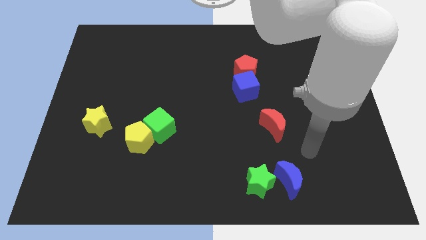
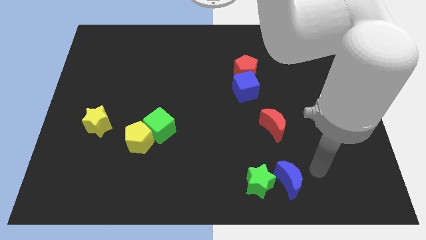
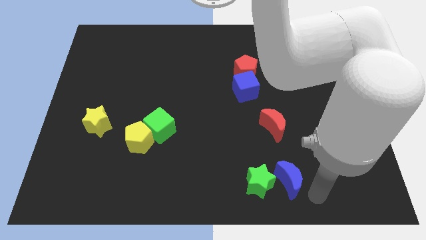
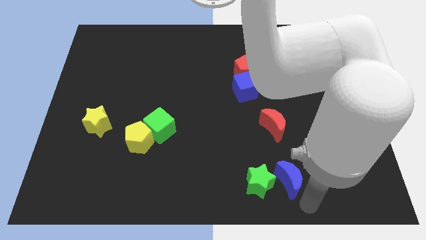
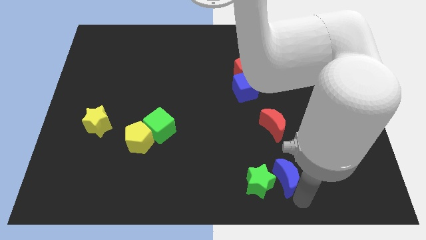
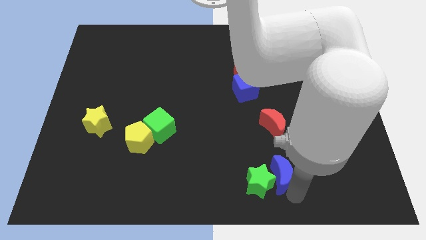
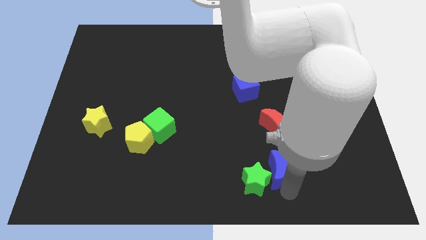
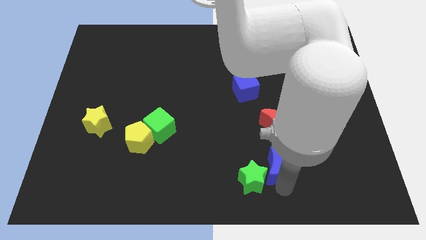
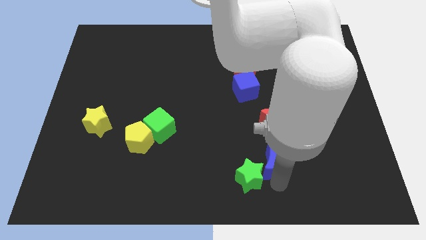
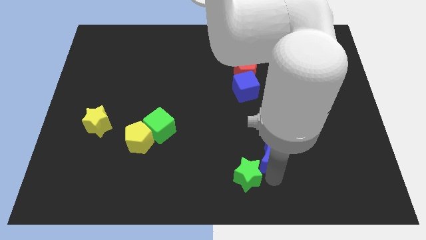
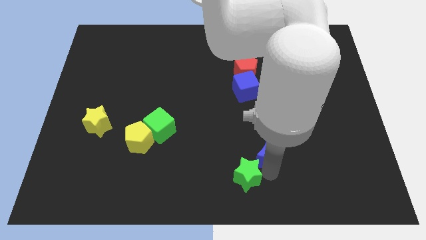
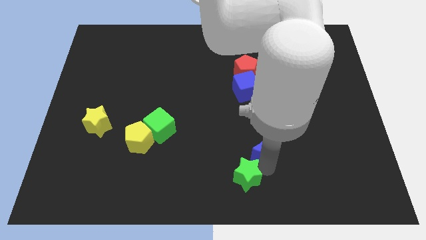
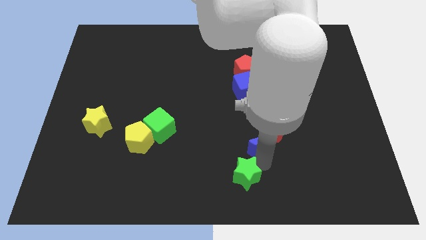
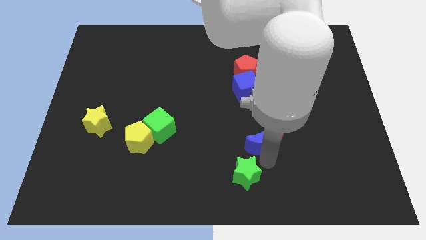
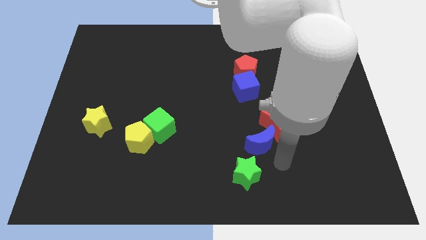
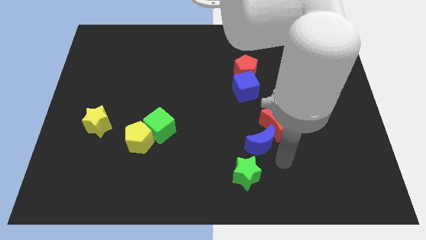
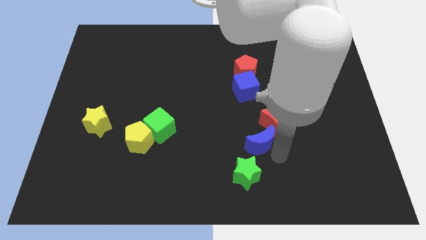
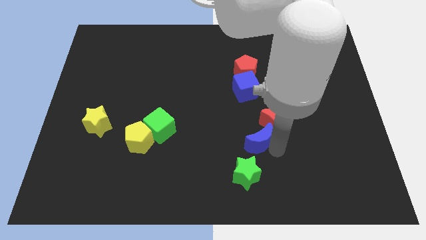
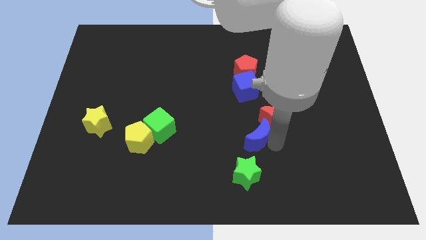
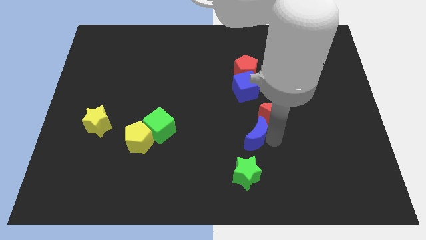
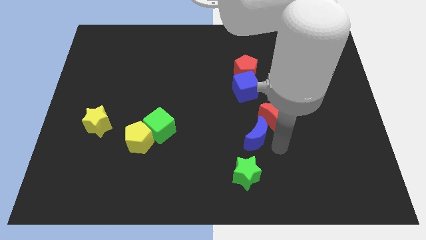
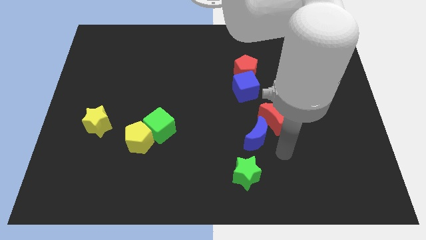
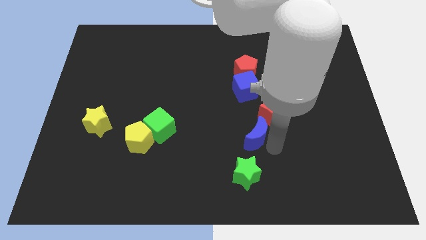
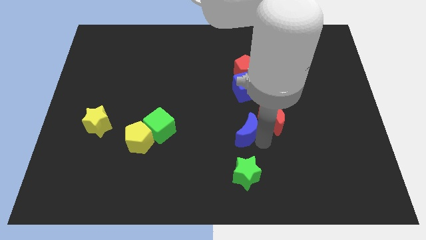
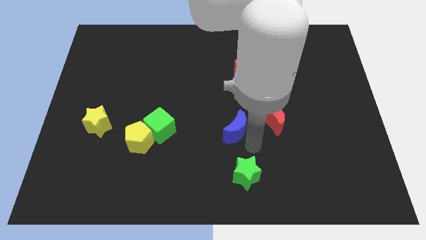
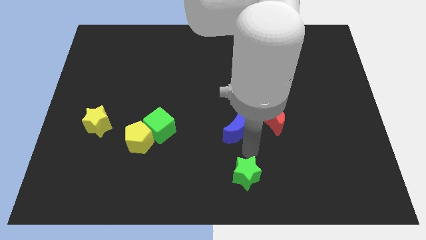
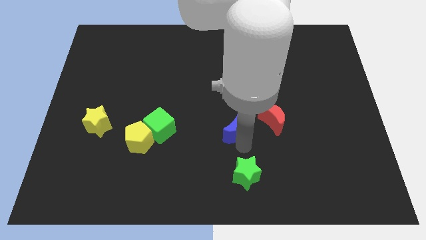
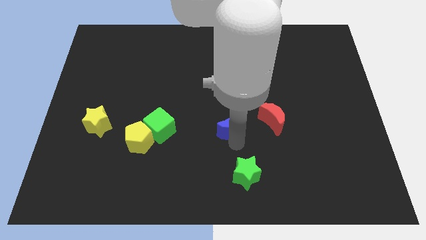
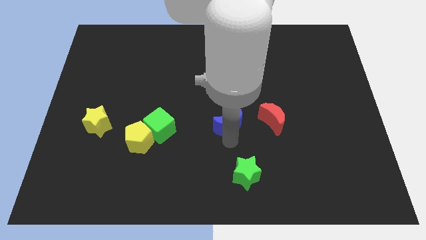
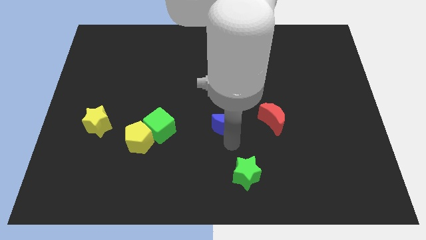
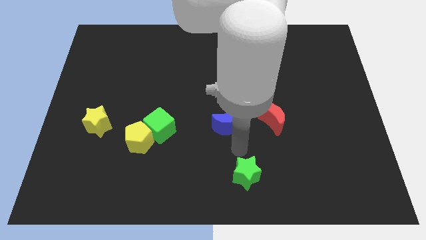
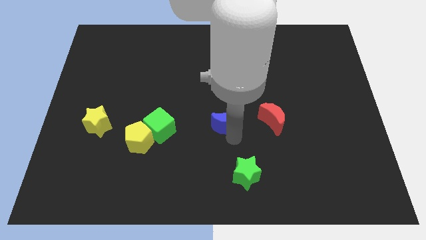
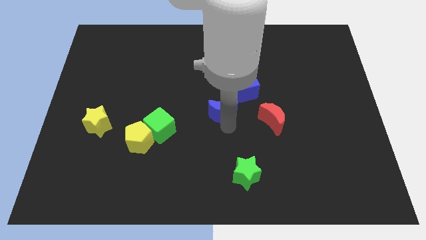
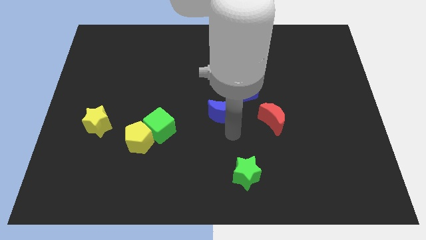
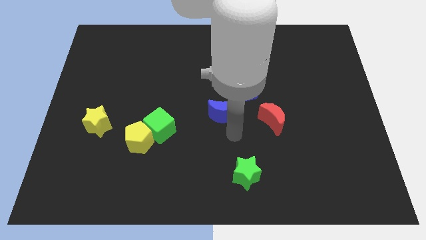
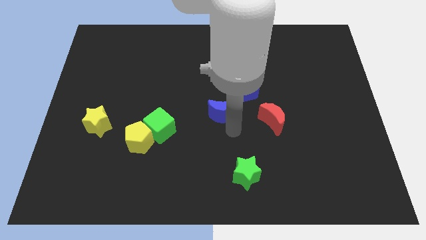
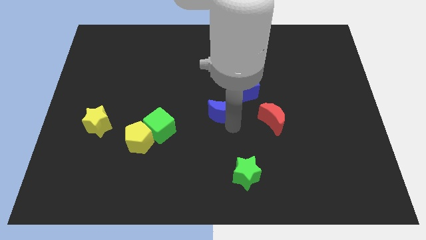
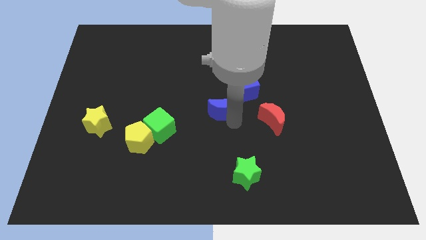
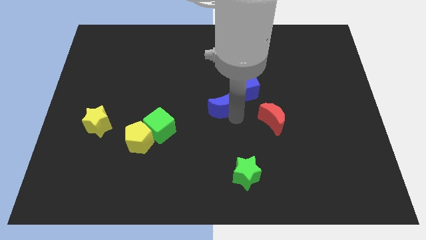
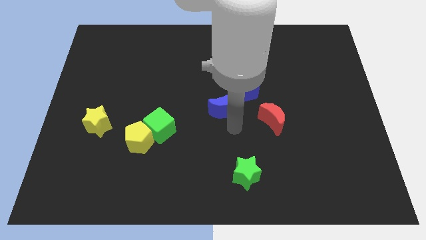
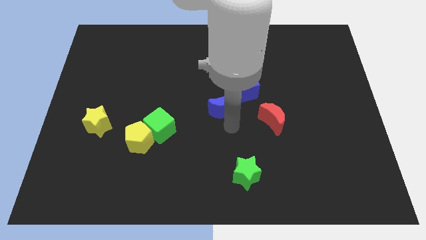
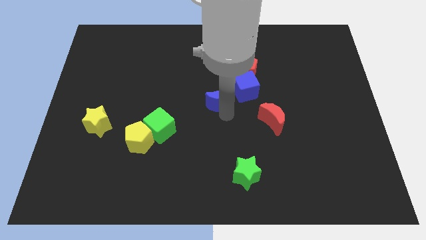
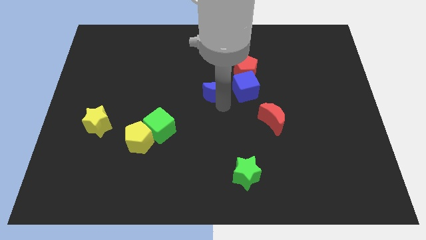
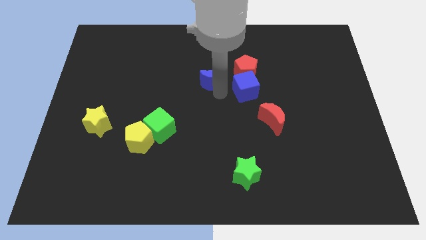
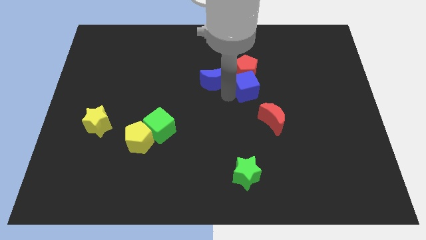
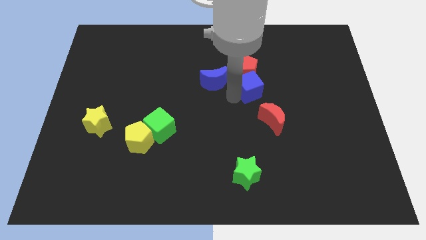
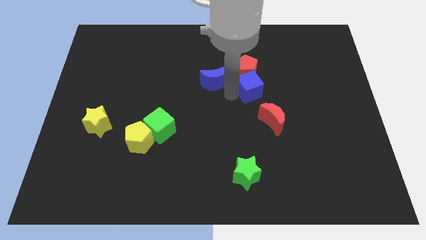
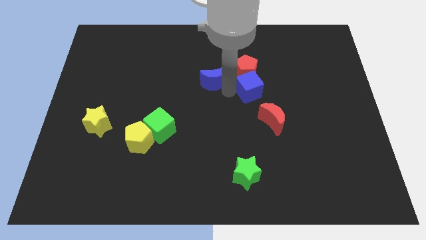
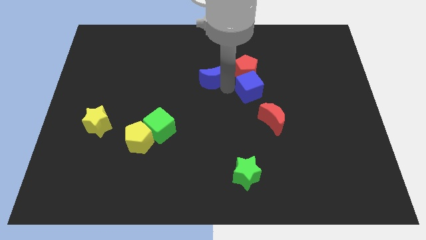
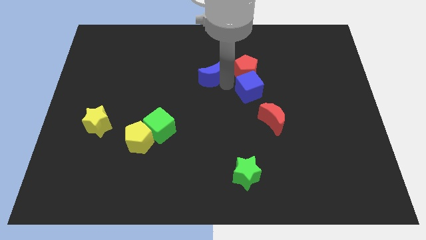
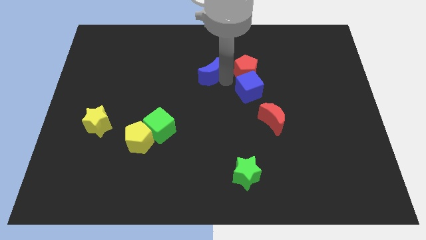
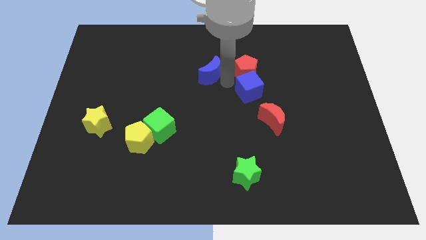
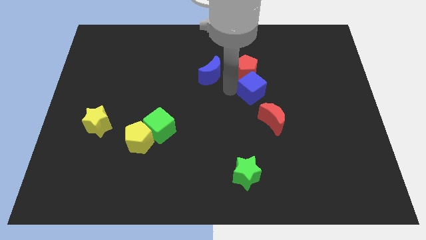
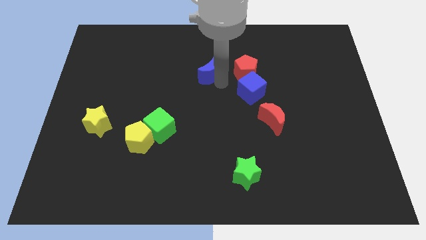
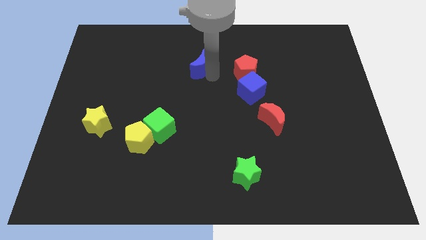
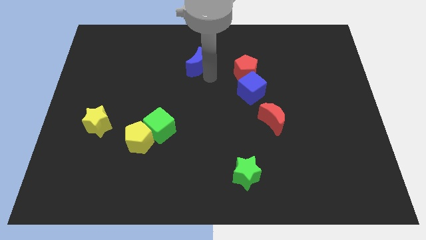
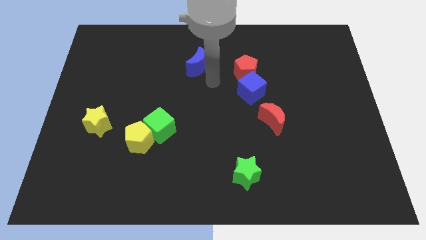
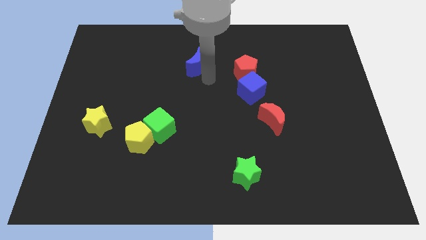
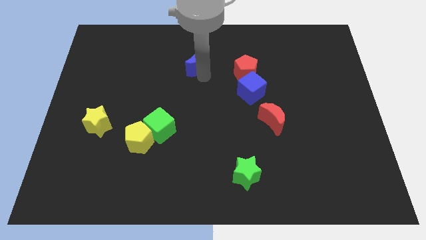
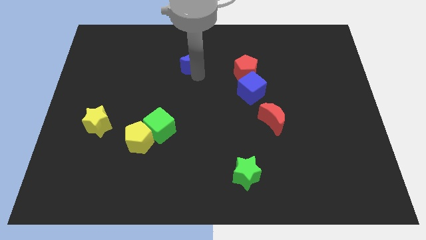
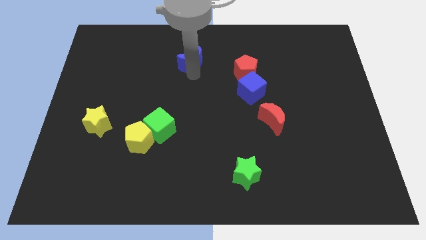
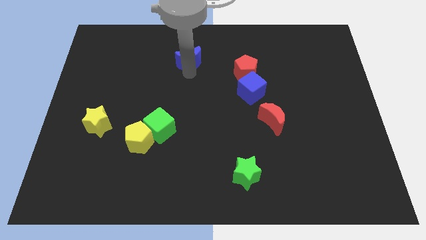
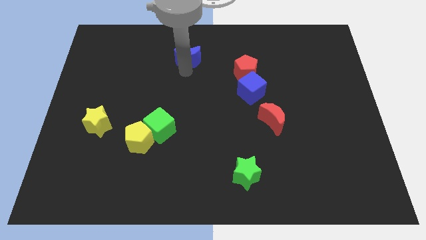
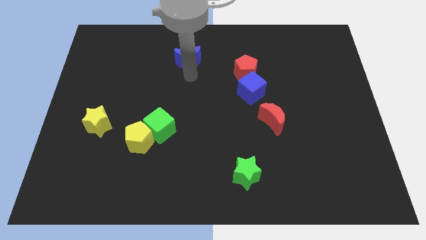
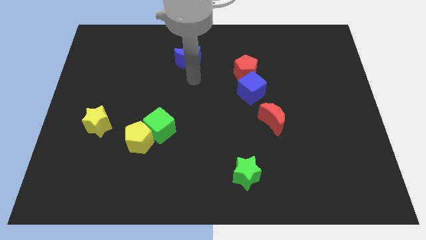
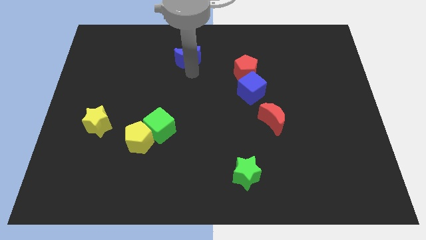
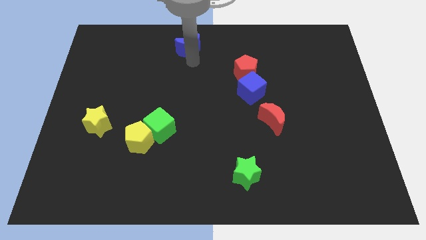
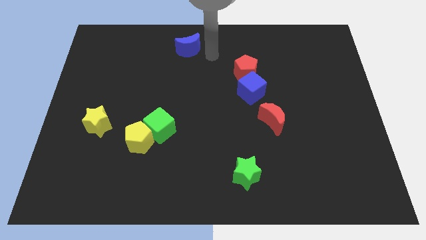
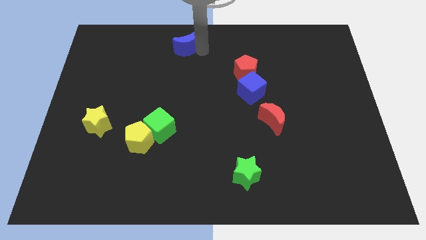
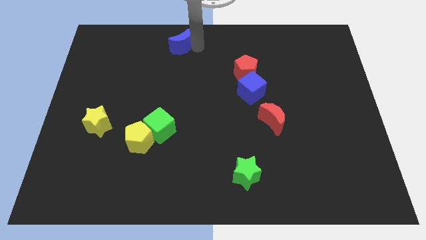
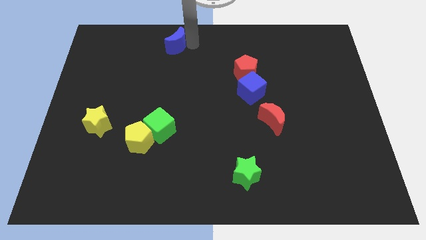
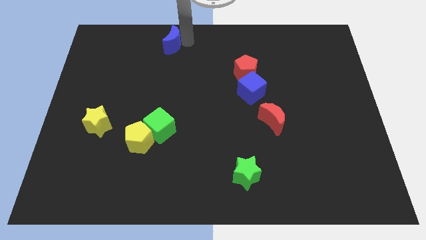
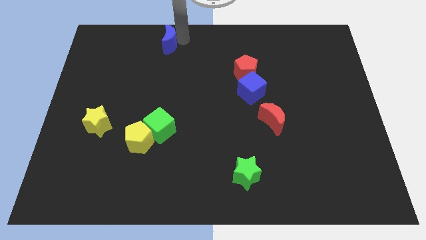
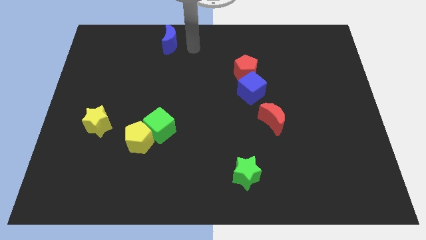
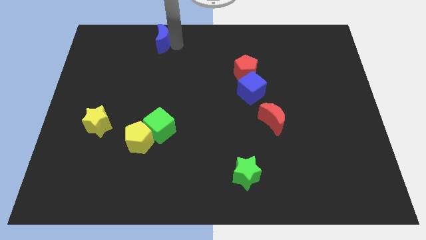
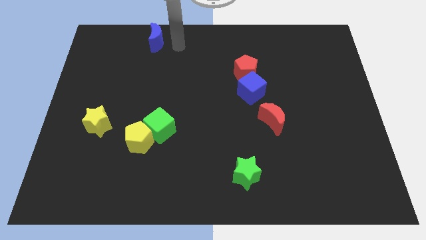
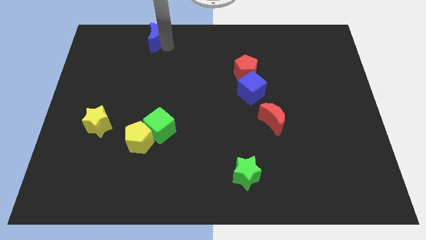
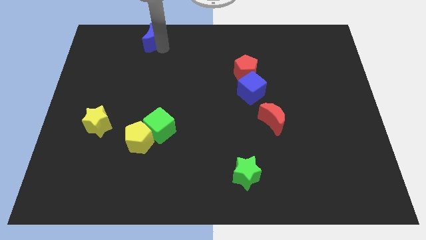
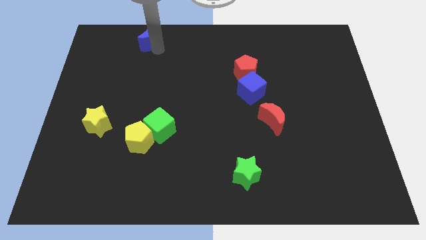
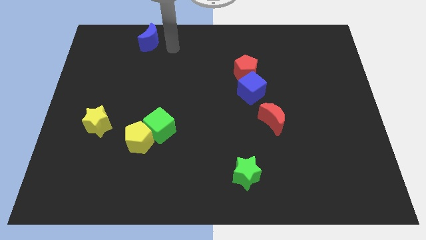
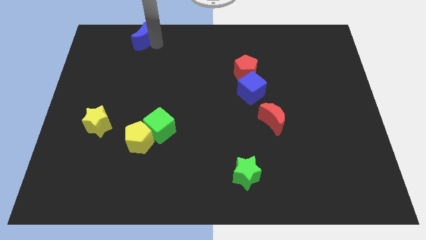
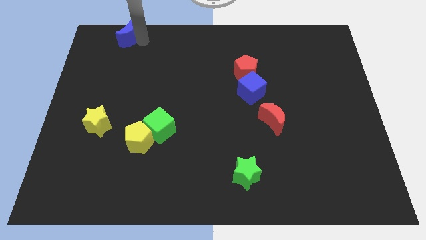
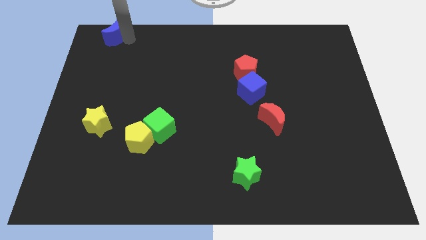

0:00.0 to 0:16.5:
slide the blue moon to the top left
